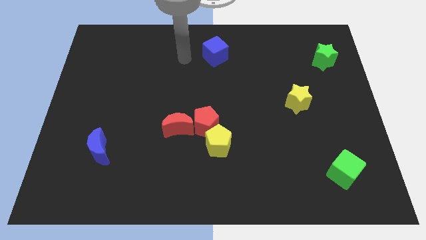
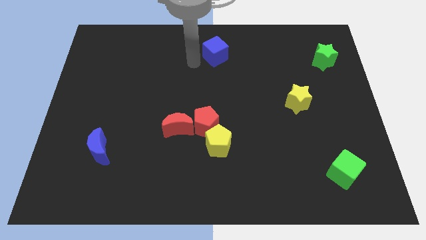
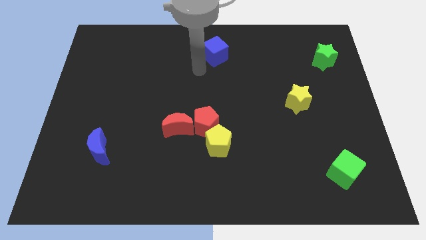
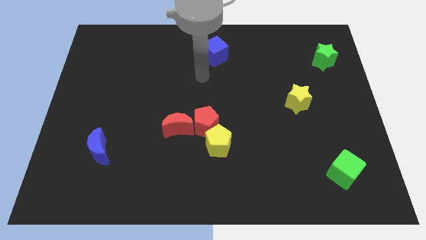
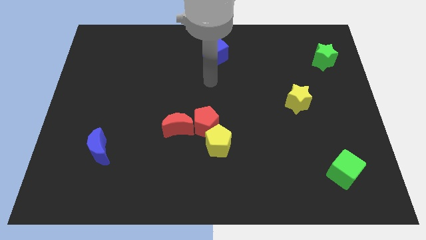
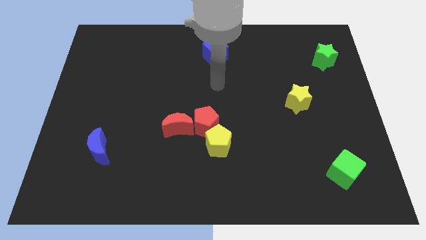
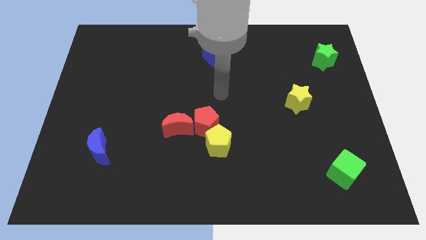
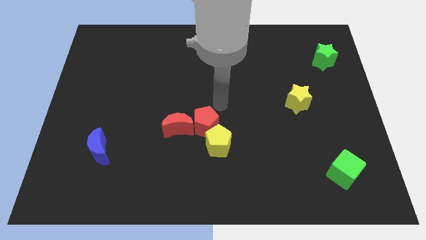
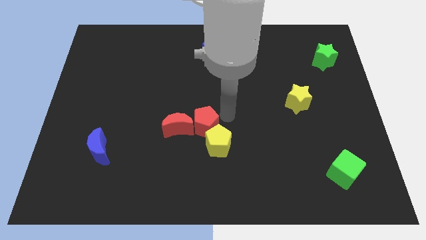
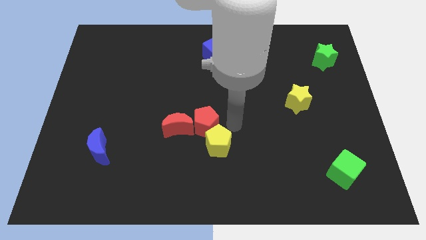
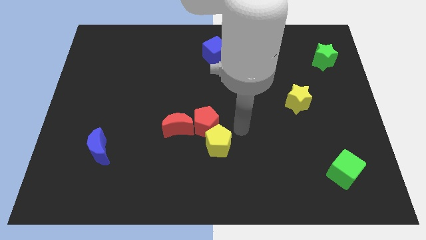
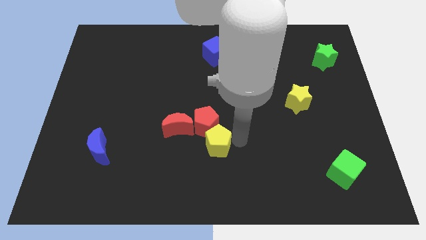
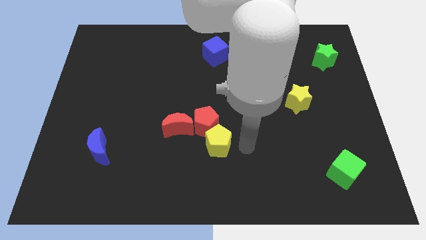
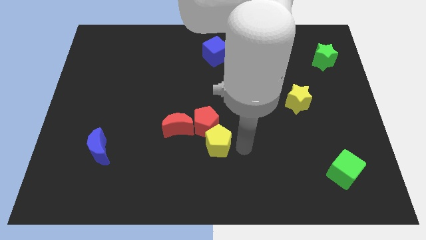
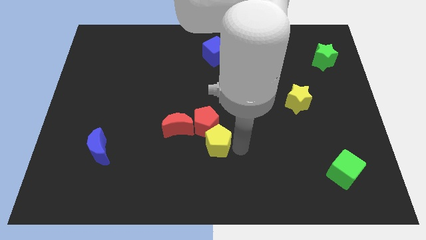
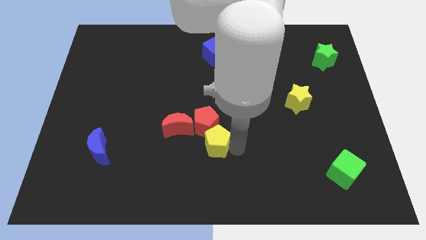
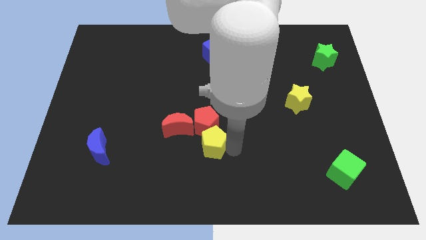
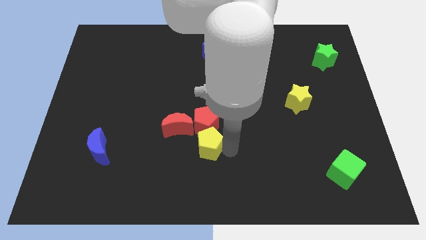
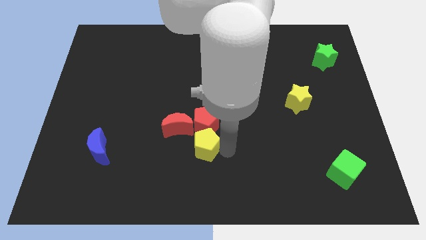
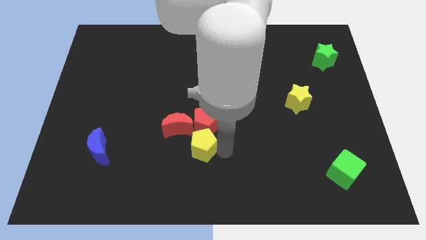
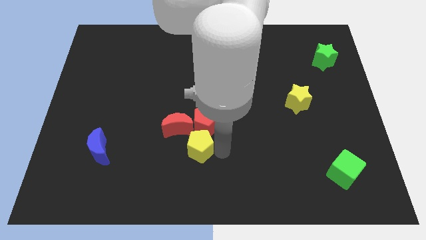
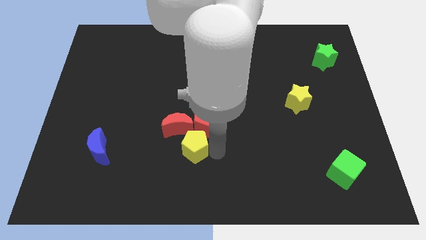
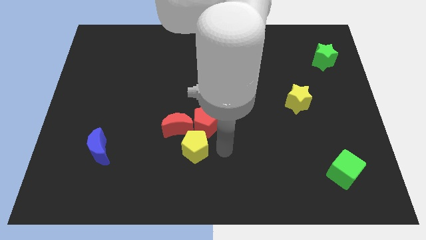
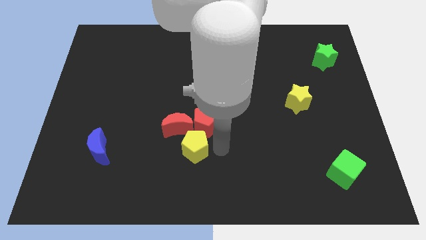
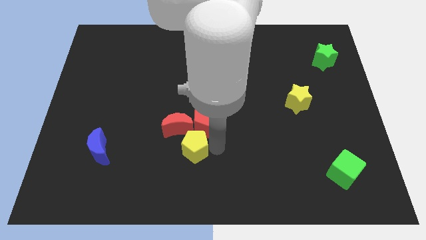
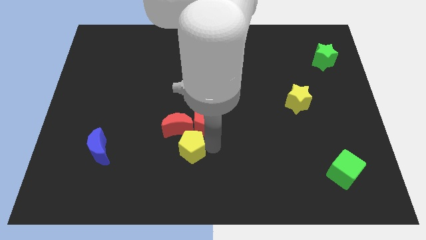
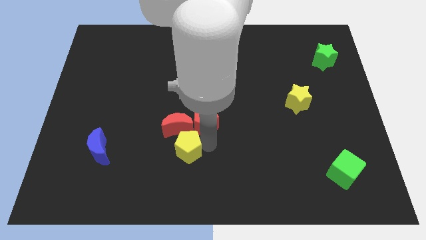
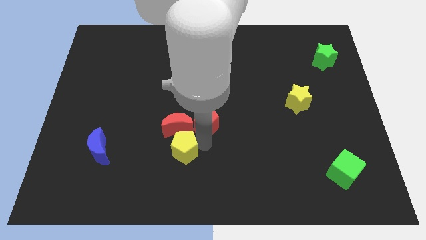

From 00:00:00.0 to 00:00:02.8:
push the yellow pentagon to the left a little

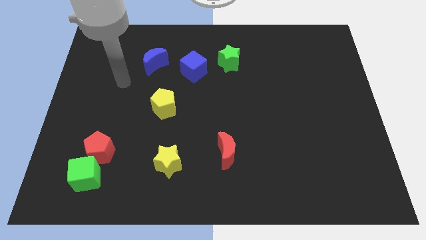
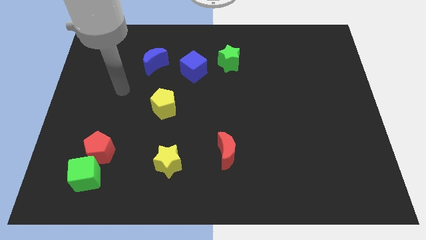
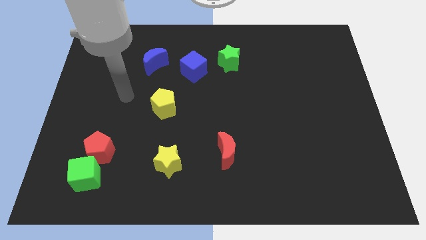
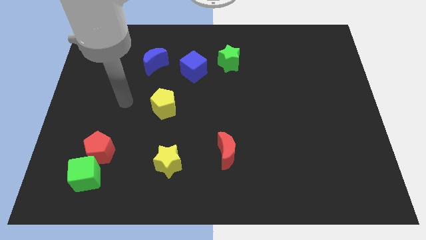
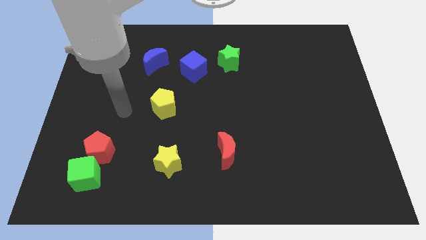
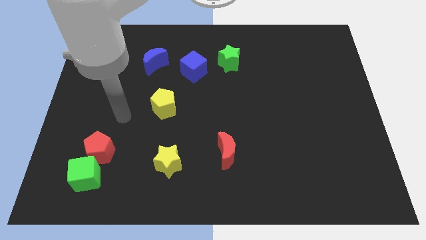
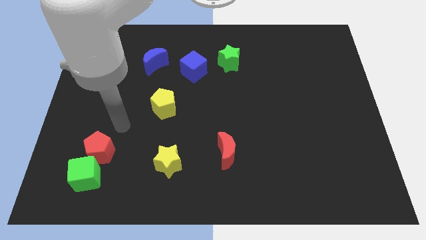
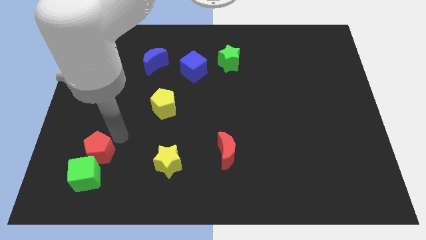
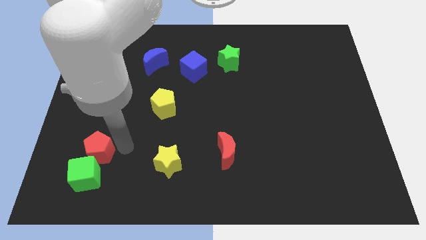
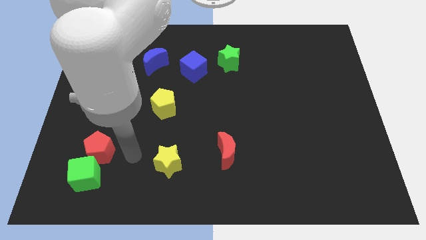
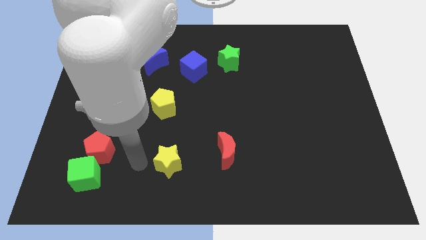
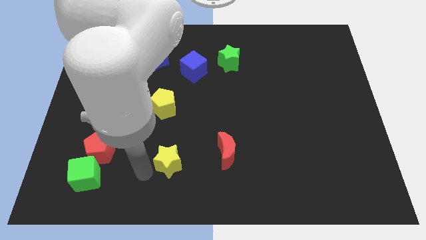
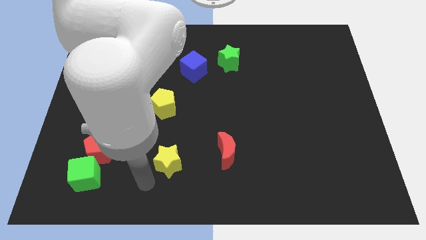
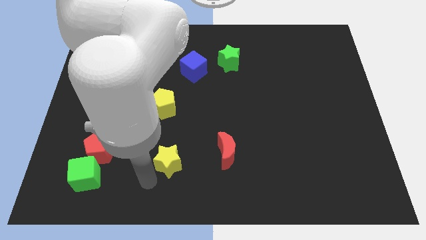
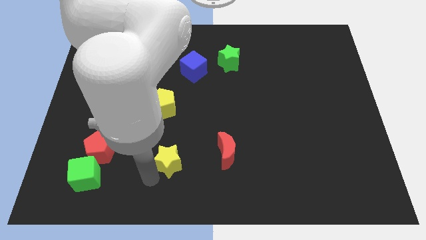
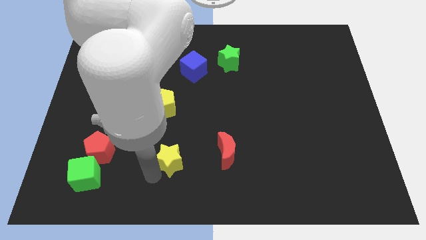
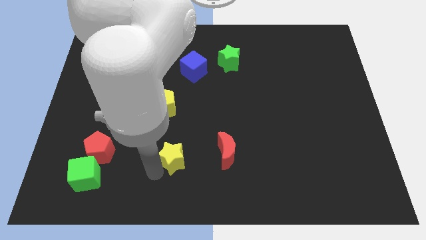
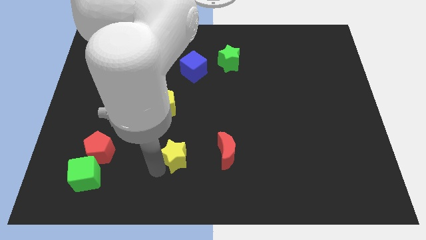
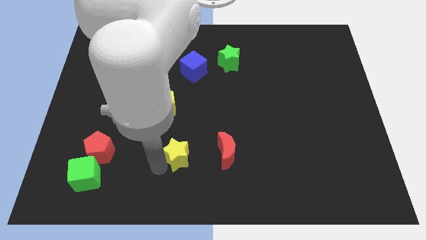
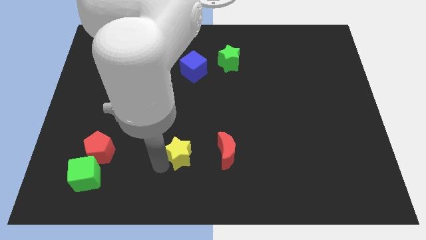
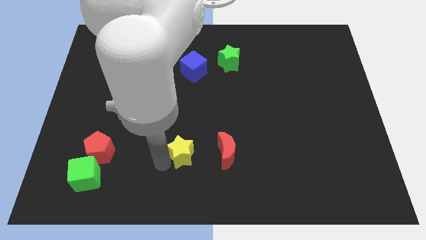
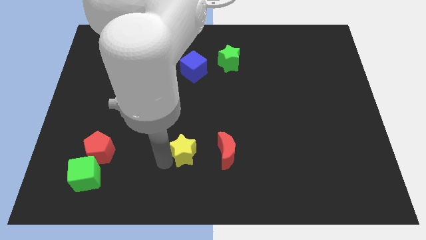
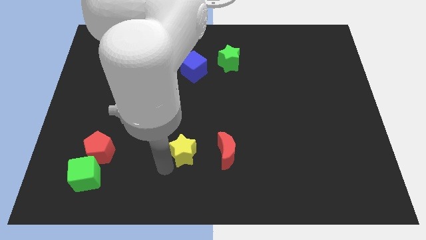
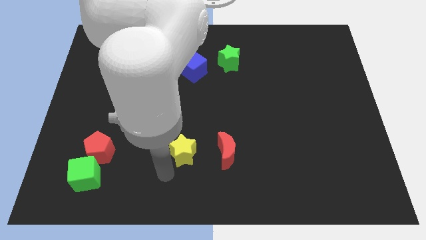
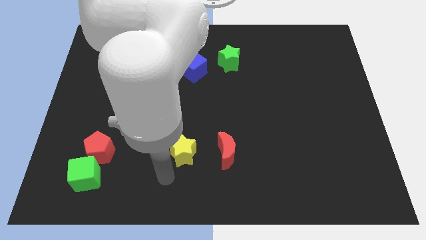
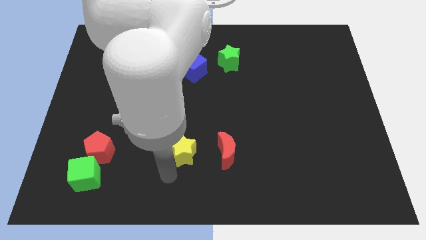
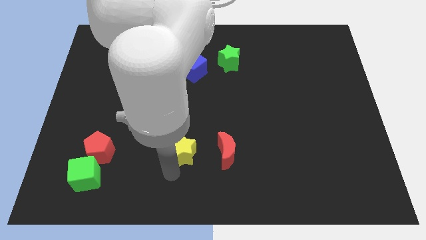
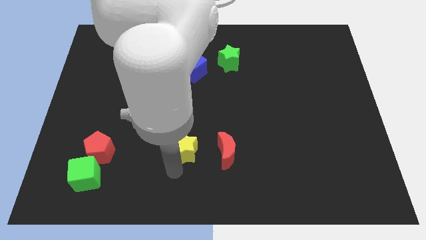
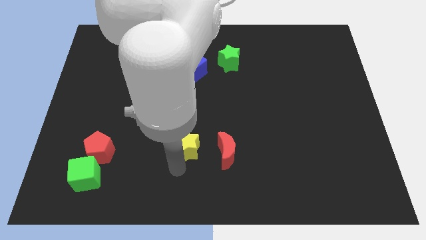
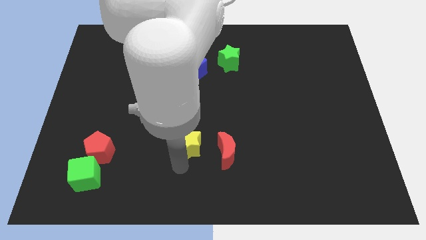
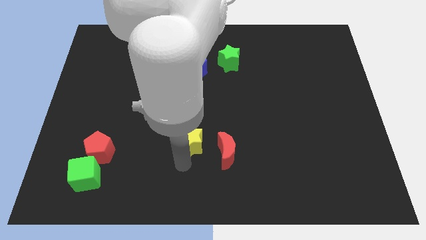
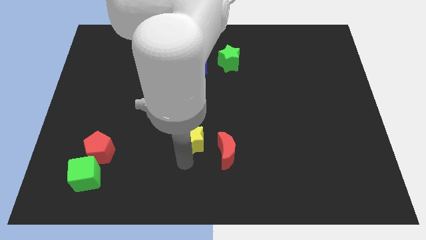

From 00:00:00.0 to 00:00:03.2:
slide the yellow star somewhat upwards and right diagonally

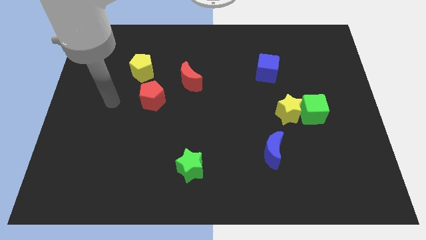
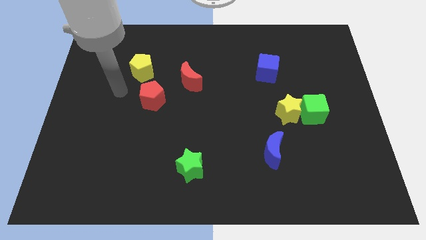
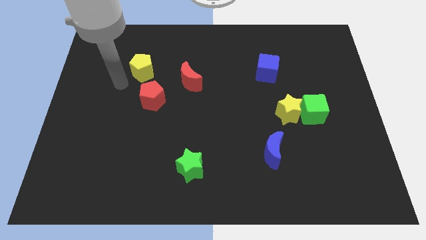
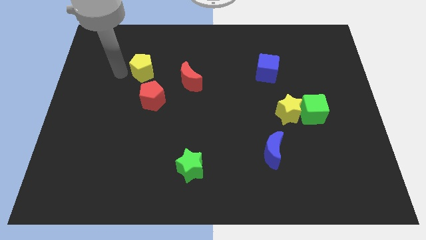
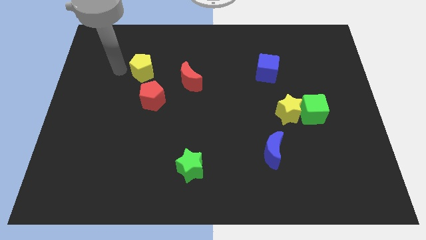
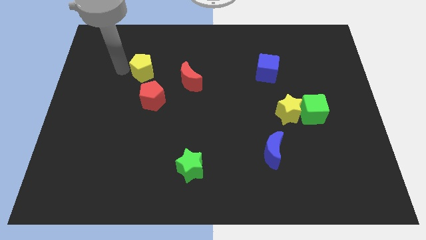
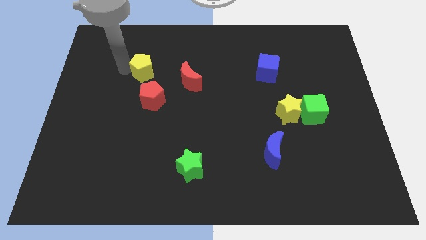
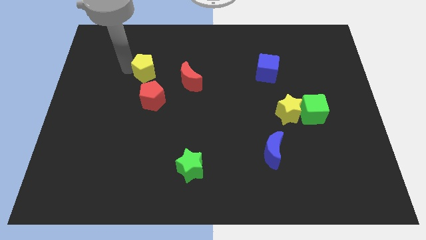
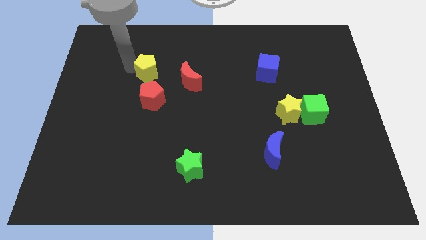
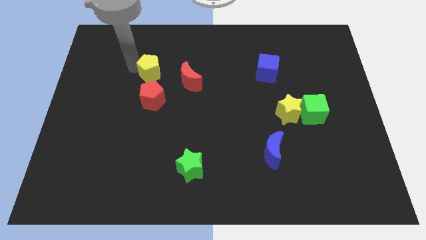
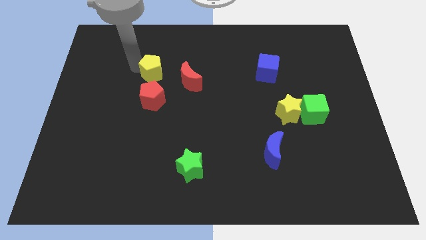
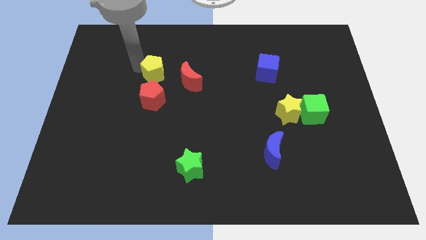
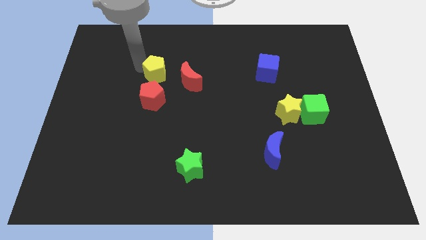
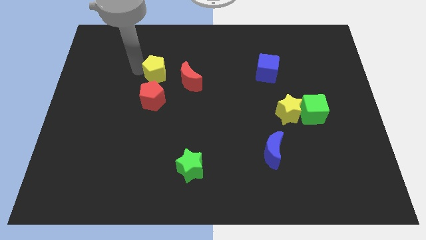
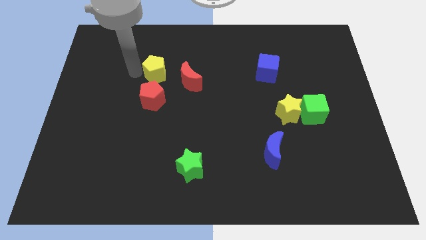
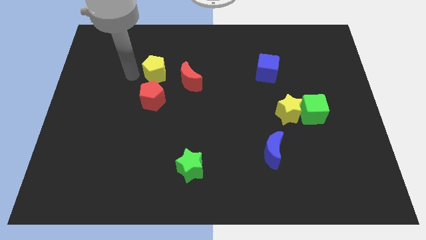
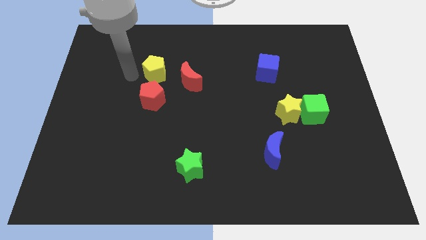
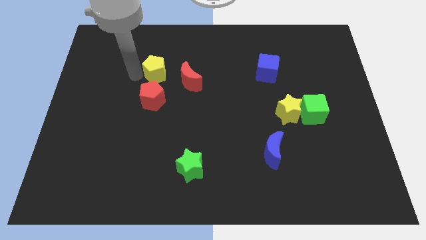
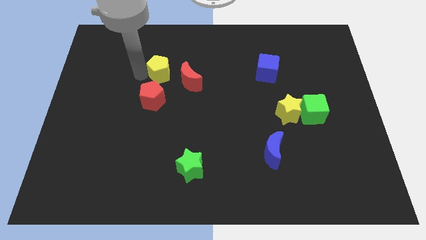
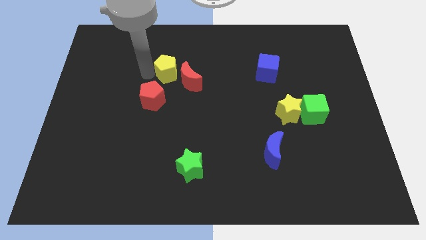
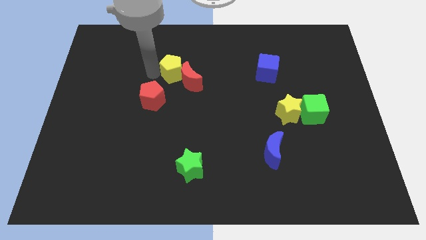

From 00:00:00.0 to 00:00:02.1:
move the yellow pentagon right a little bit
